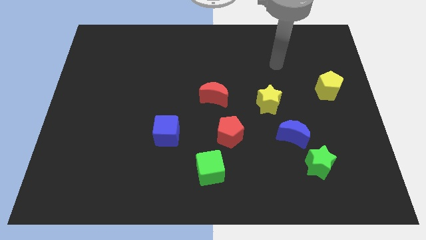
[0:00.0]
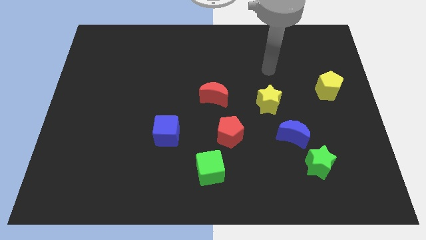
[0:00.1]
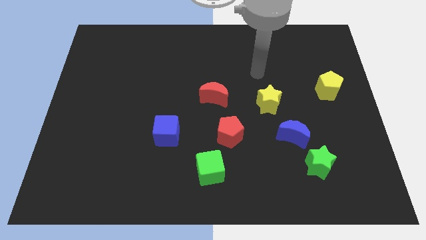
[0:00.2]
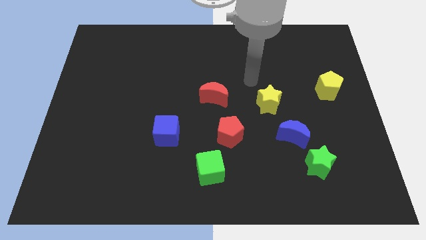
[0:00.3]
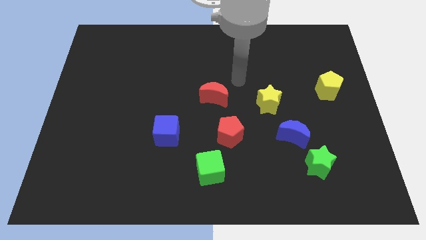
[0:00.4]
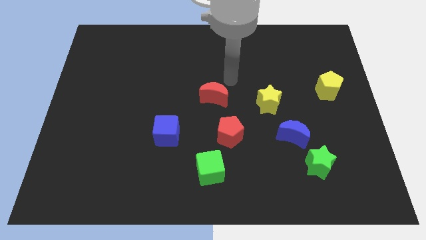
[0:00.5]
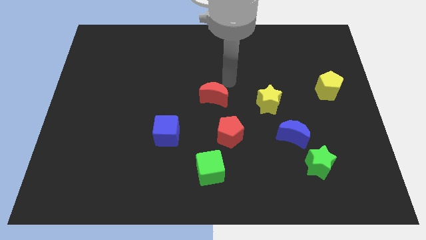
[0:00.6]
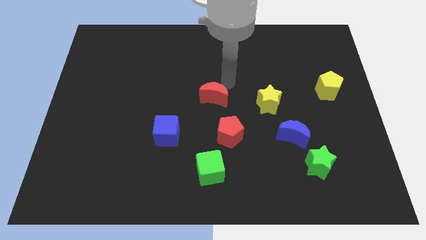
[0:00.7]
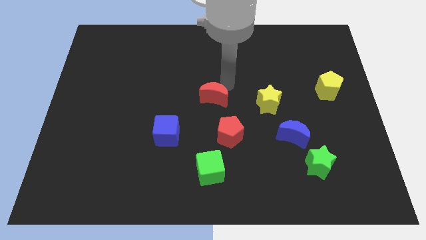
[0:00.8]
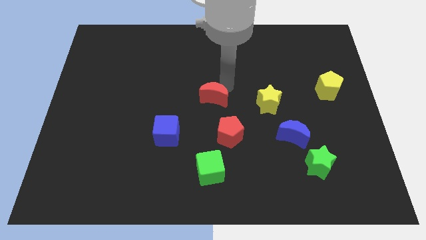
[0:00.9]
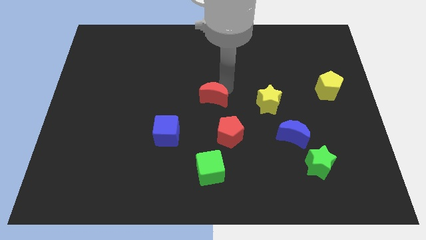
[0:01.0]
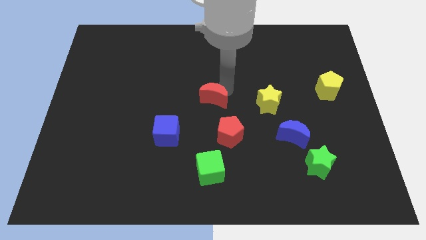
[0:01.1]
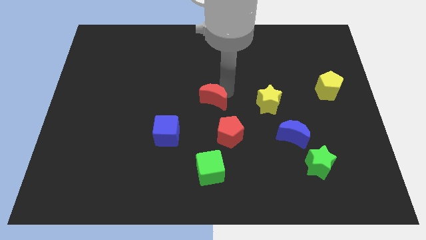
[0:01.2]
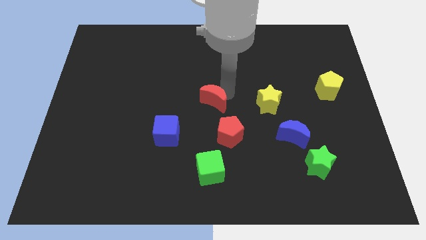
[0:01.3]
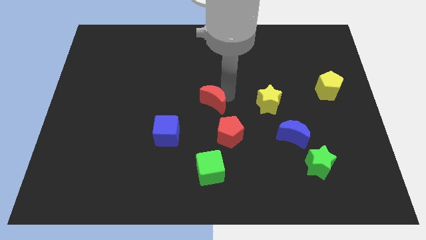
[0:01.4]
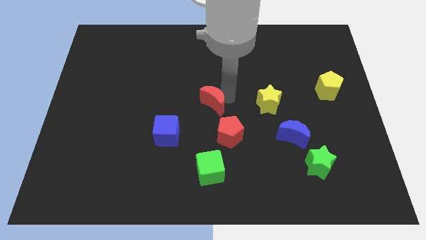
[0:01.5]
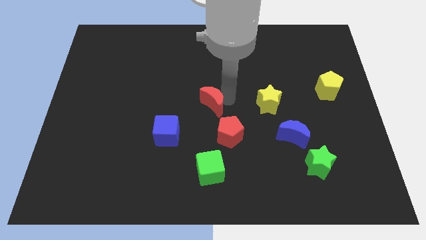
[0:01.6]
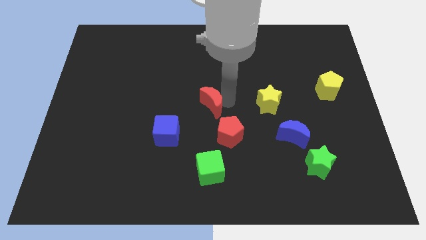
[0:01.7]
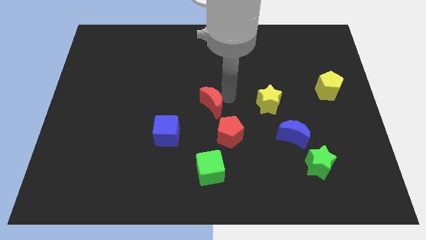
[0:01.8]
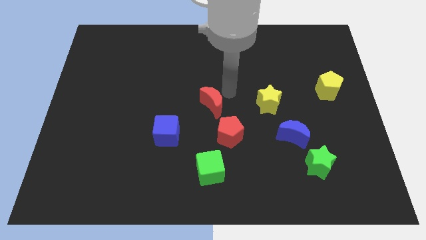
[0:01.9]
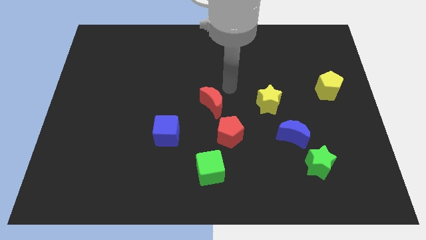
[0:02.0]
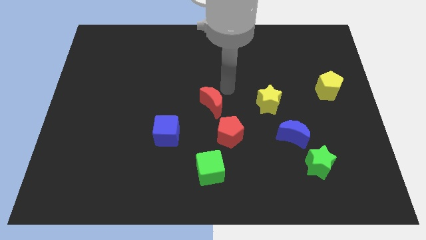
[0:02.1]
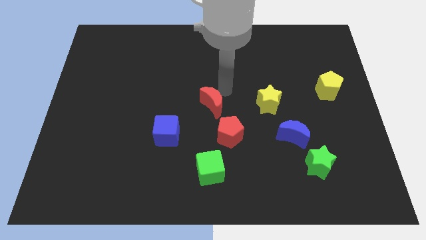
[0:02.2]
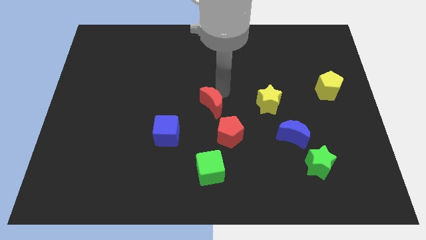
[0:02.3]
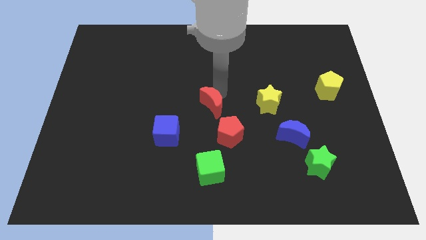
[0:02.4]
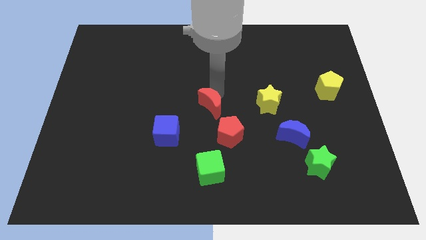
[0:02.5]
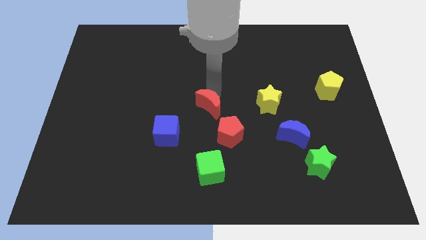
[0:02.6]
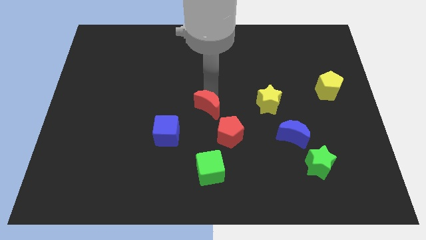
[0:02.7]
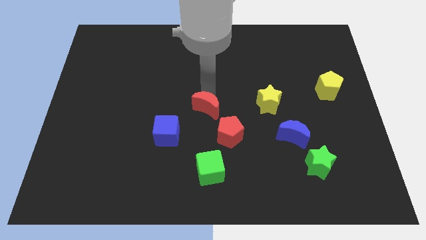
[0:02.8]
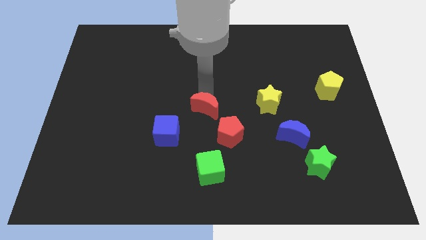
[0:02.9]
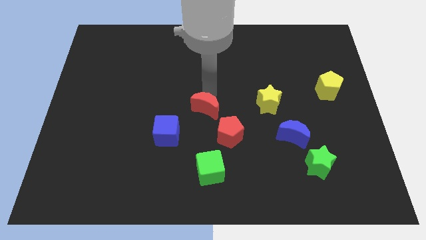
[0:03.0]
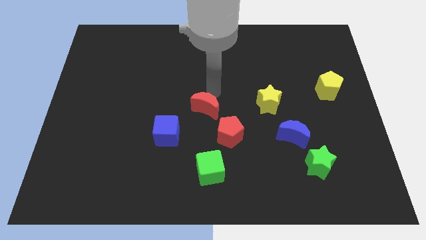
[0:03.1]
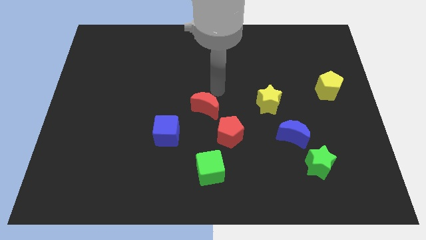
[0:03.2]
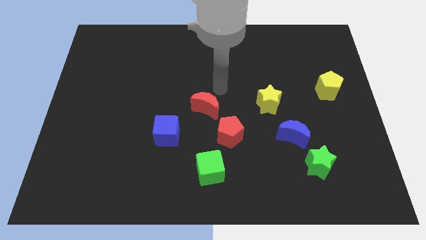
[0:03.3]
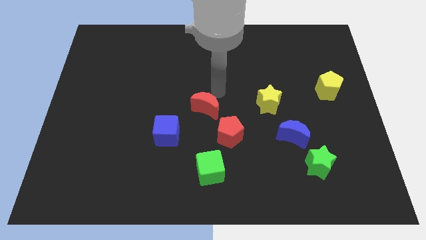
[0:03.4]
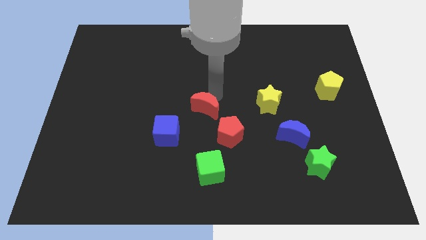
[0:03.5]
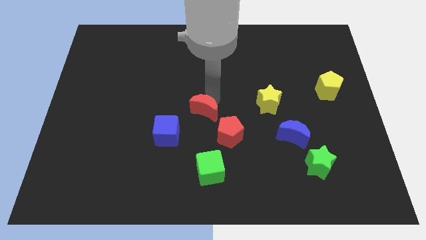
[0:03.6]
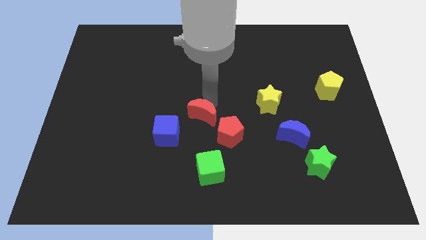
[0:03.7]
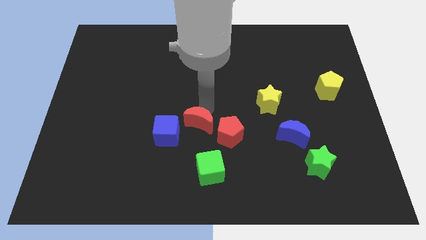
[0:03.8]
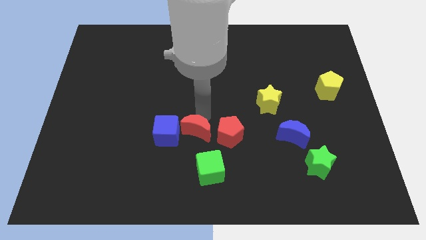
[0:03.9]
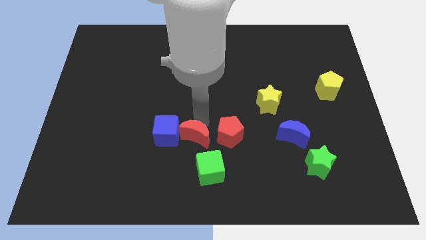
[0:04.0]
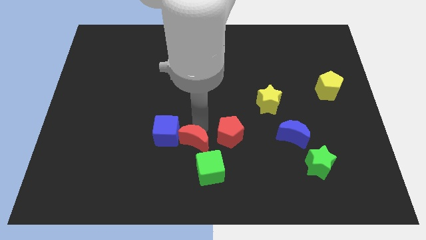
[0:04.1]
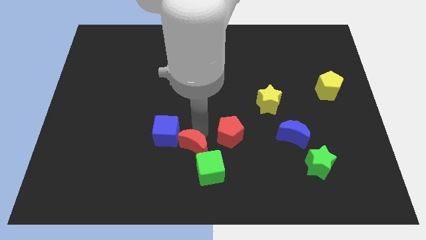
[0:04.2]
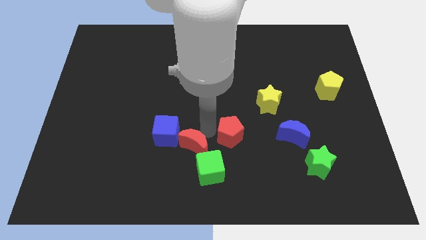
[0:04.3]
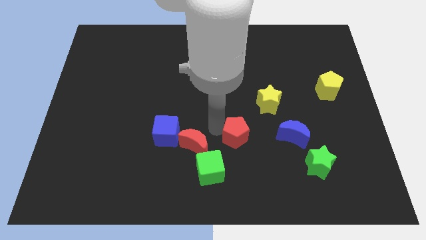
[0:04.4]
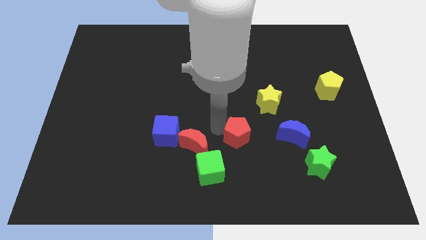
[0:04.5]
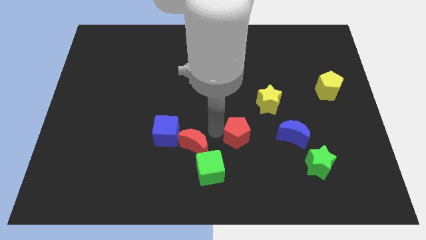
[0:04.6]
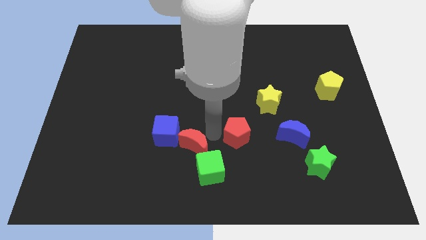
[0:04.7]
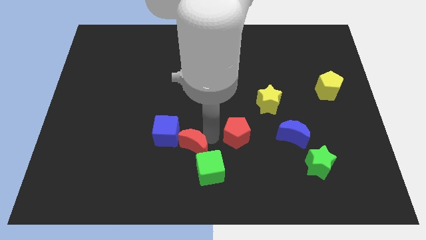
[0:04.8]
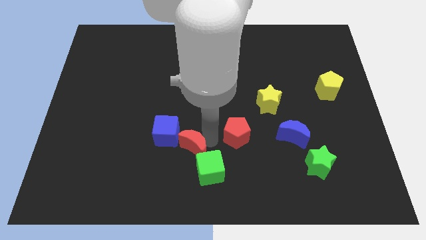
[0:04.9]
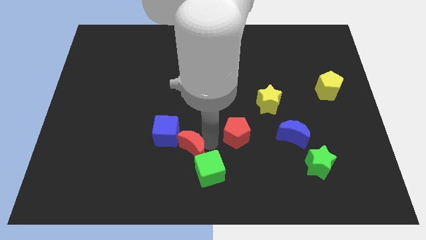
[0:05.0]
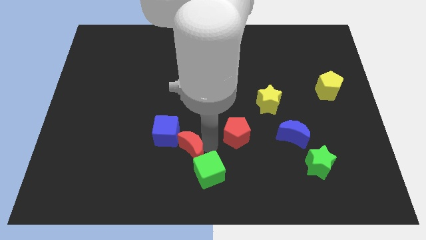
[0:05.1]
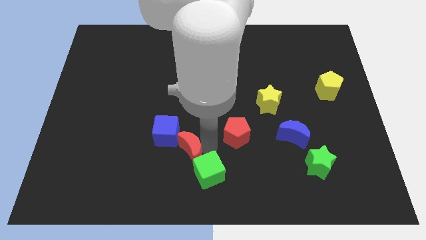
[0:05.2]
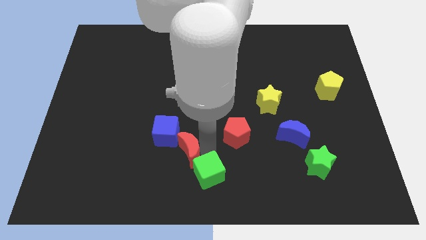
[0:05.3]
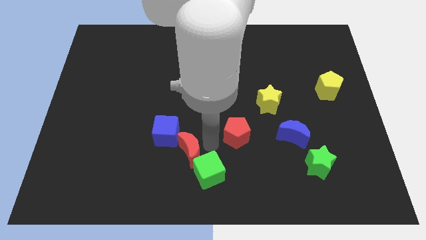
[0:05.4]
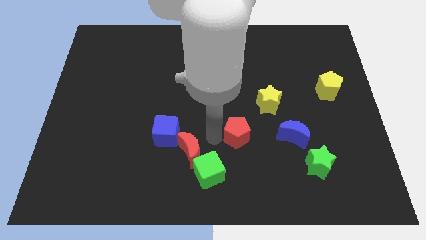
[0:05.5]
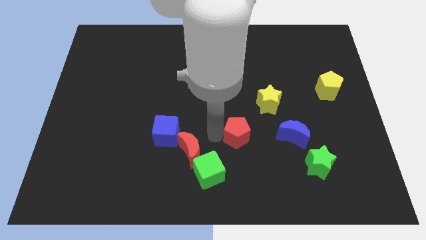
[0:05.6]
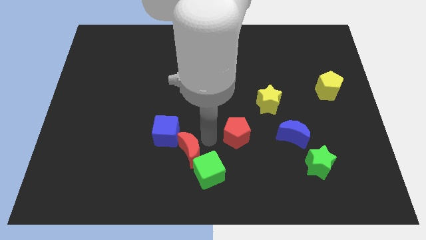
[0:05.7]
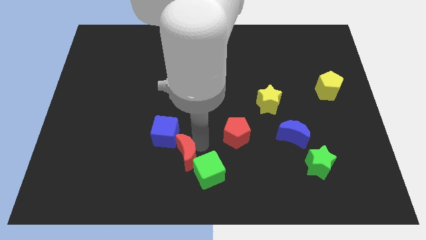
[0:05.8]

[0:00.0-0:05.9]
push the red moon to the left side of the green cube

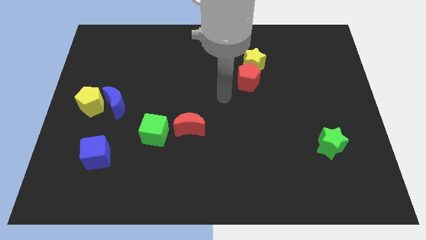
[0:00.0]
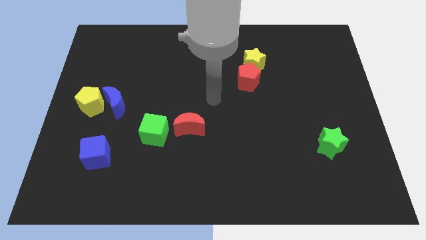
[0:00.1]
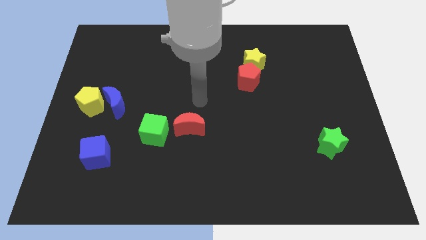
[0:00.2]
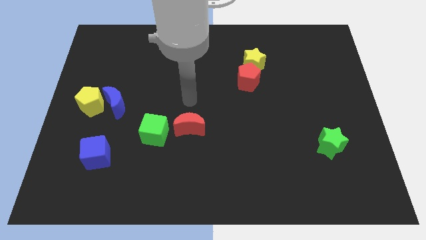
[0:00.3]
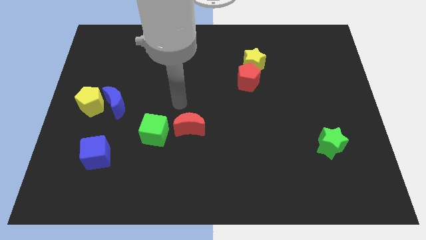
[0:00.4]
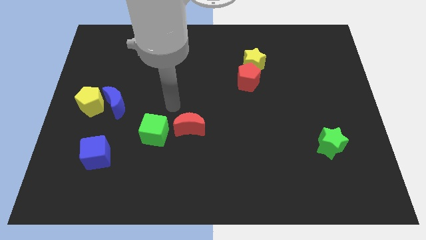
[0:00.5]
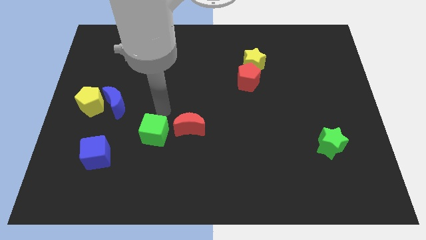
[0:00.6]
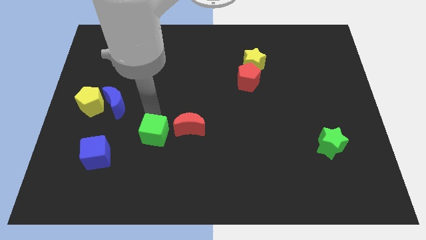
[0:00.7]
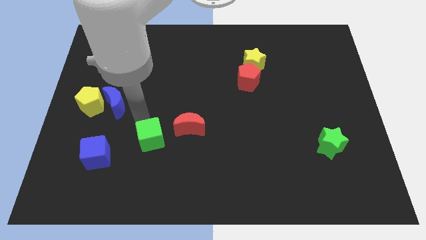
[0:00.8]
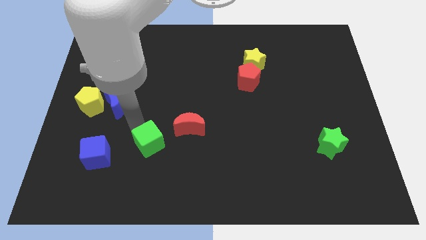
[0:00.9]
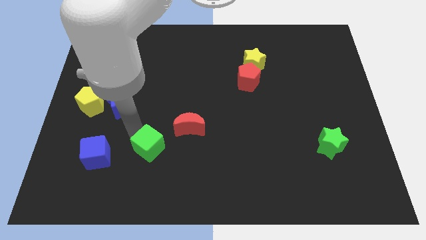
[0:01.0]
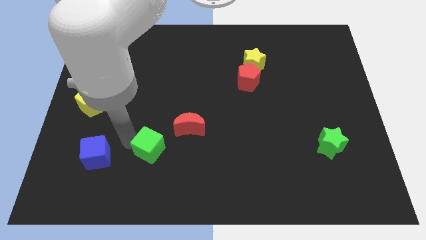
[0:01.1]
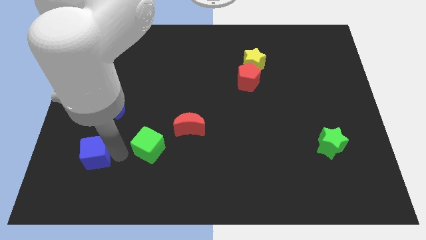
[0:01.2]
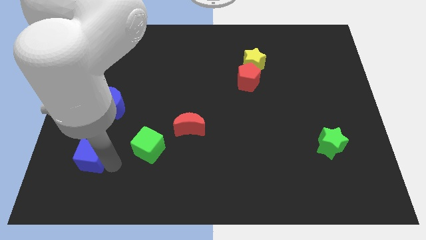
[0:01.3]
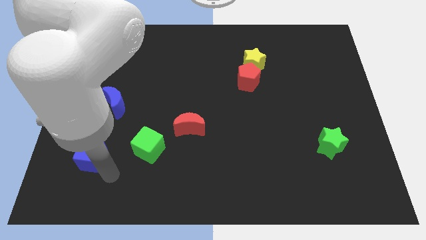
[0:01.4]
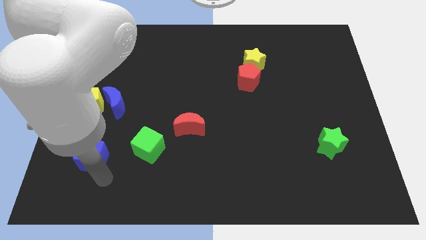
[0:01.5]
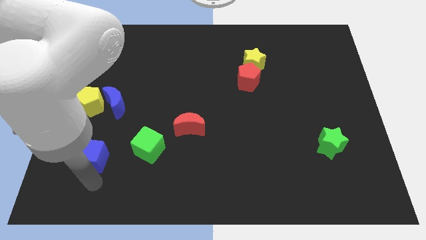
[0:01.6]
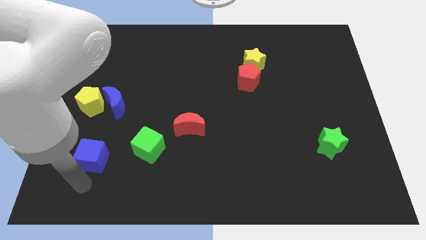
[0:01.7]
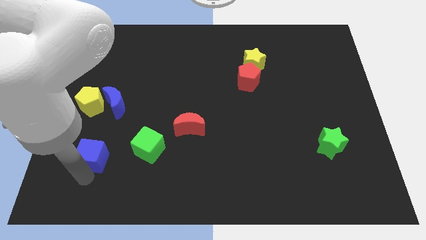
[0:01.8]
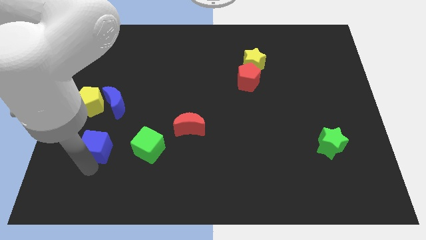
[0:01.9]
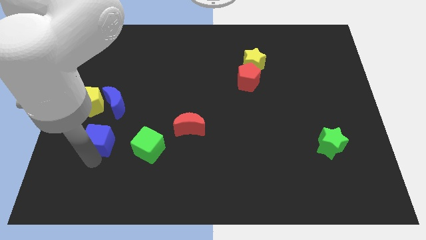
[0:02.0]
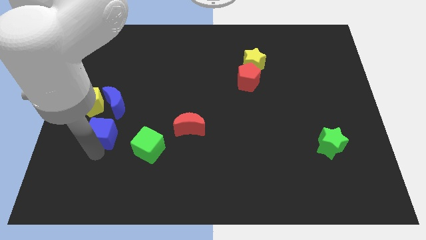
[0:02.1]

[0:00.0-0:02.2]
push the blue cube diagonally down and to the right of the yellow pentagon
